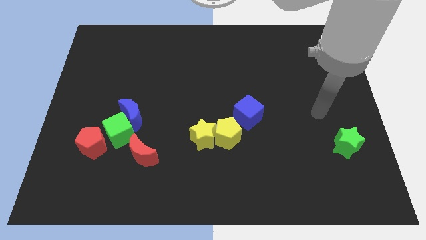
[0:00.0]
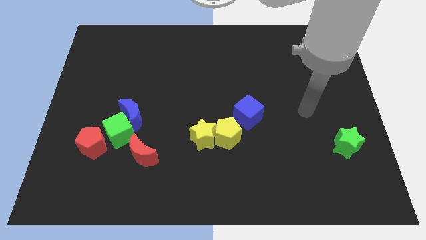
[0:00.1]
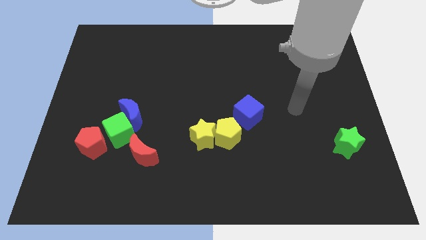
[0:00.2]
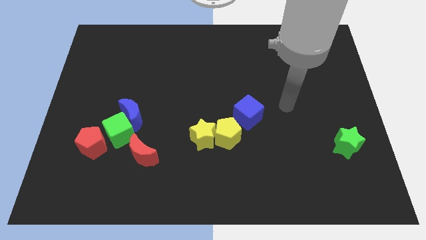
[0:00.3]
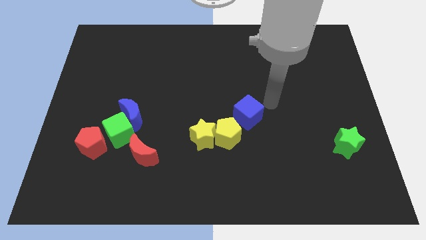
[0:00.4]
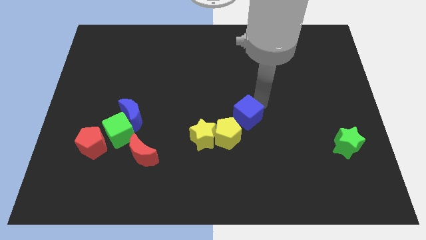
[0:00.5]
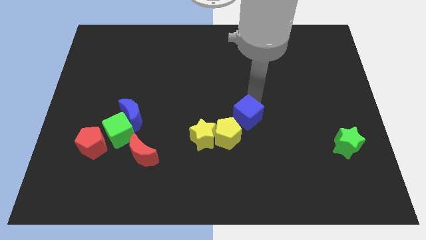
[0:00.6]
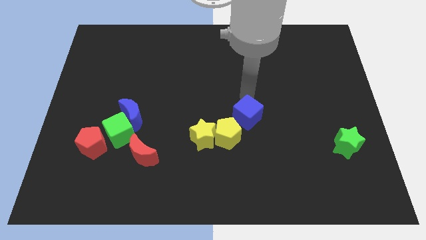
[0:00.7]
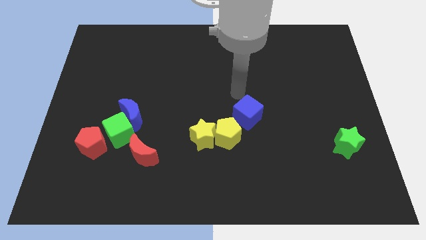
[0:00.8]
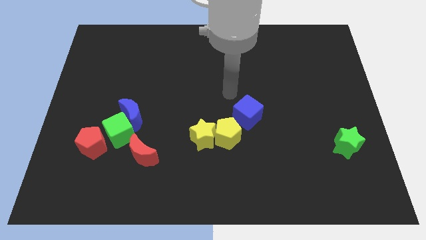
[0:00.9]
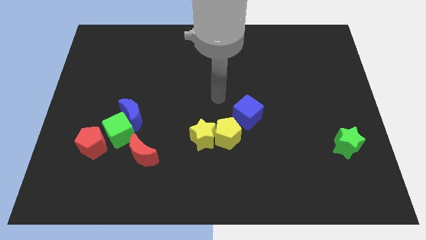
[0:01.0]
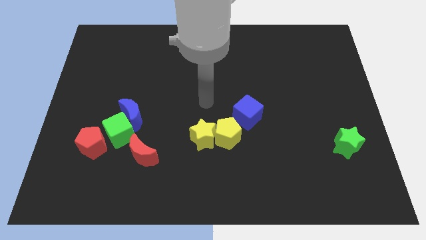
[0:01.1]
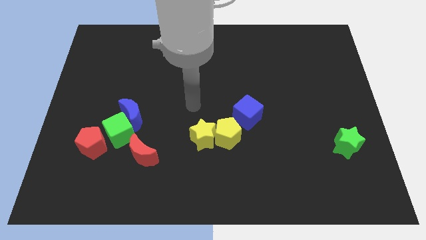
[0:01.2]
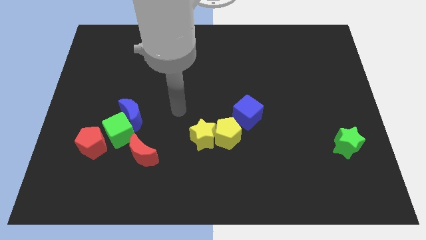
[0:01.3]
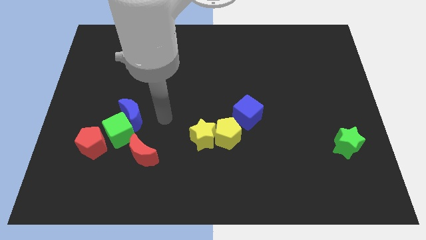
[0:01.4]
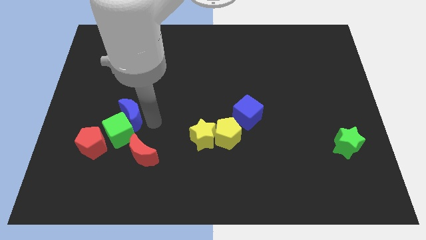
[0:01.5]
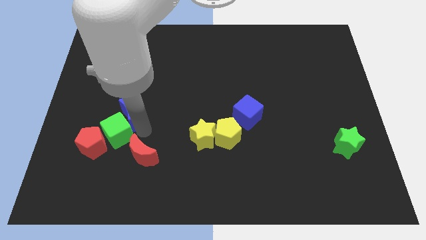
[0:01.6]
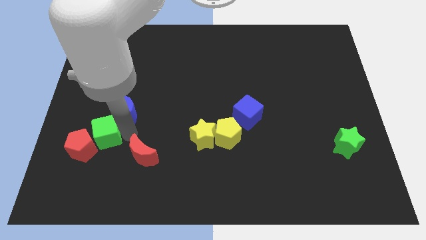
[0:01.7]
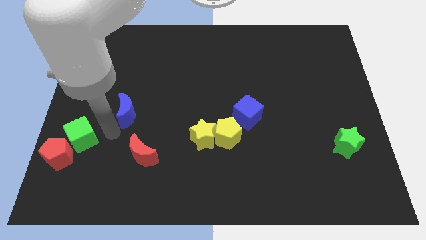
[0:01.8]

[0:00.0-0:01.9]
separate the blue moon from the green cube

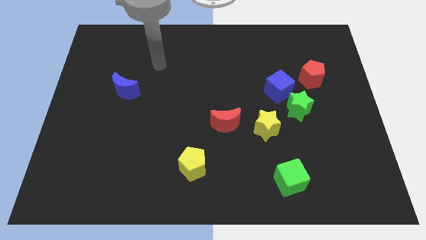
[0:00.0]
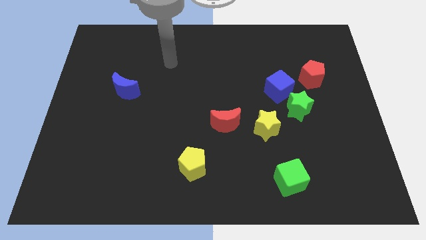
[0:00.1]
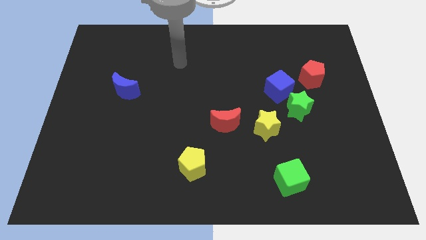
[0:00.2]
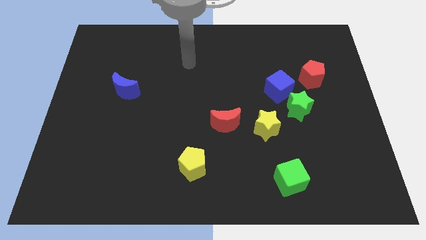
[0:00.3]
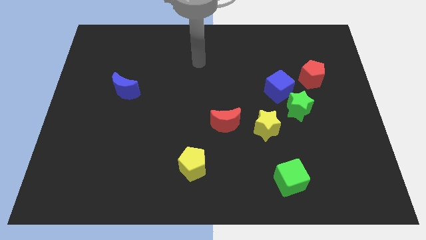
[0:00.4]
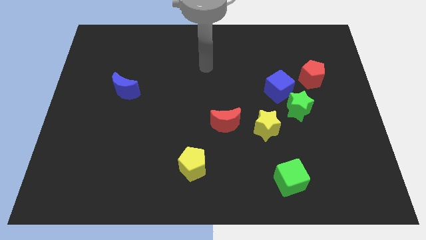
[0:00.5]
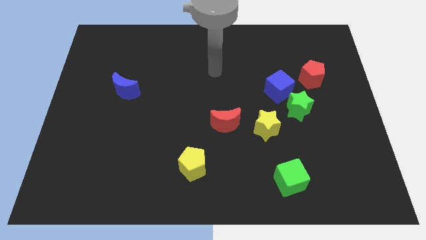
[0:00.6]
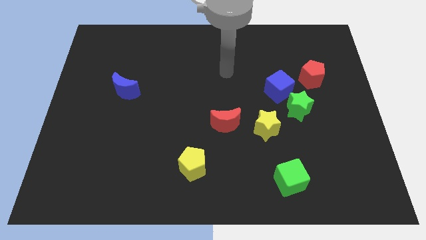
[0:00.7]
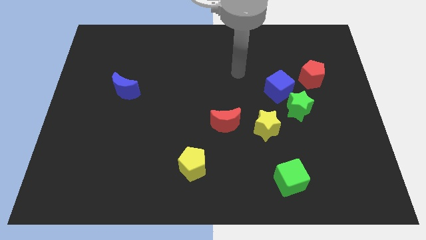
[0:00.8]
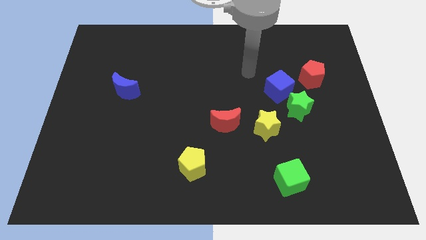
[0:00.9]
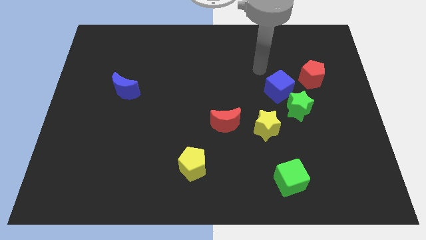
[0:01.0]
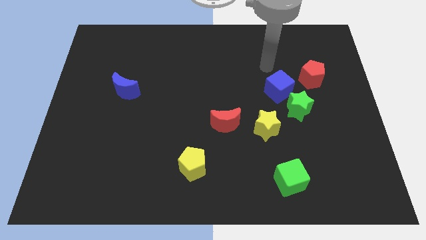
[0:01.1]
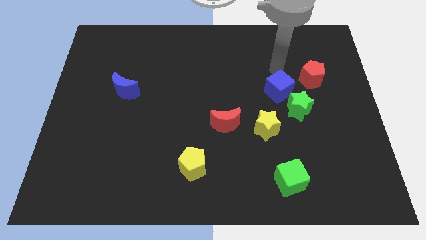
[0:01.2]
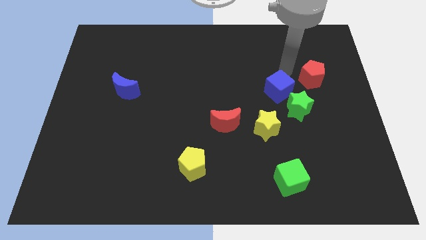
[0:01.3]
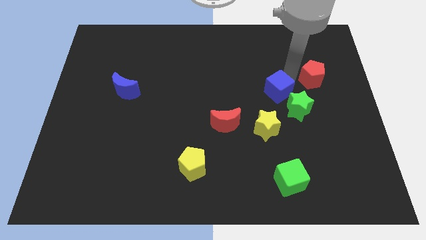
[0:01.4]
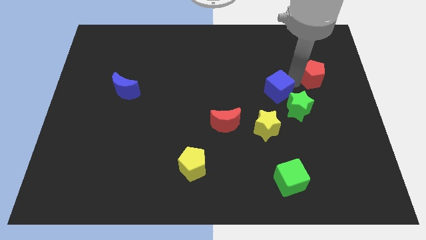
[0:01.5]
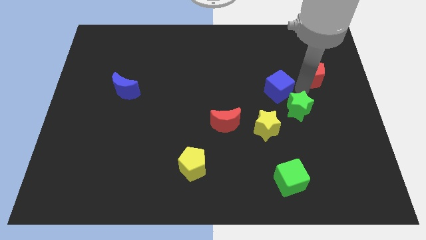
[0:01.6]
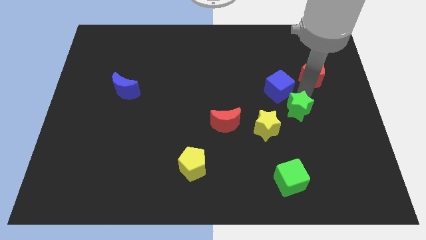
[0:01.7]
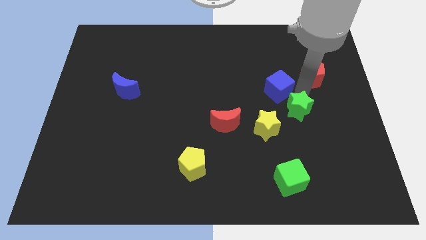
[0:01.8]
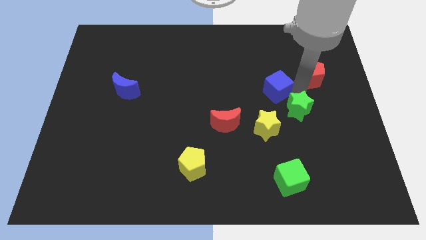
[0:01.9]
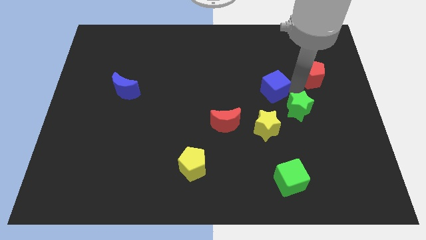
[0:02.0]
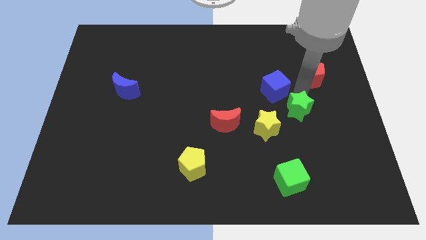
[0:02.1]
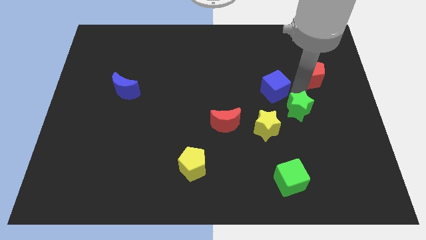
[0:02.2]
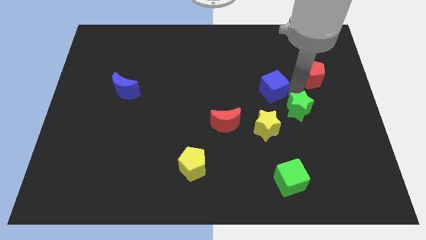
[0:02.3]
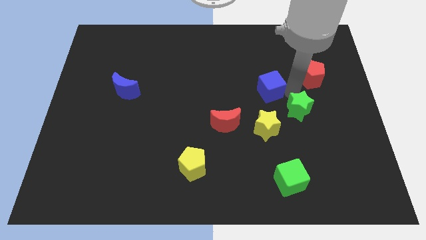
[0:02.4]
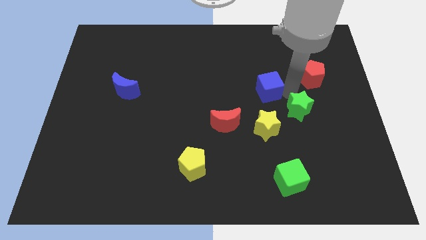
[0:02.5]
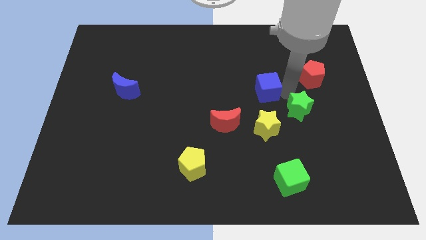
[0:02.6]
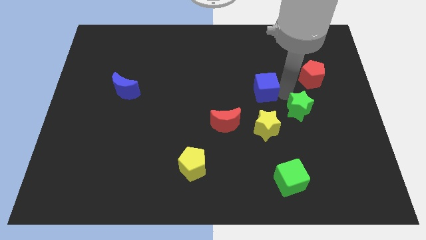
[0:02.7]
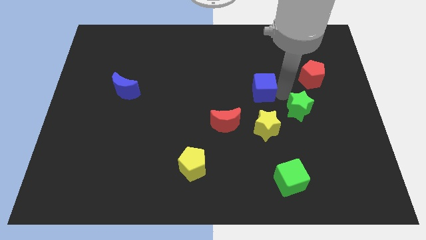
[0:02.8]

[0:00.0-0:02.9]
separate the blue cube from the green star and red pentagon

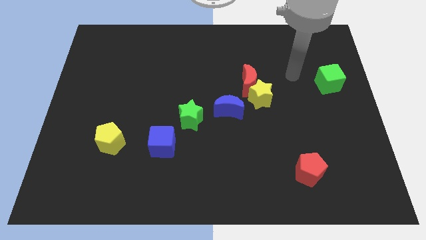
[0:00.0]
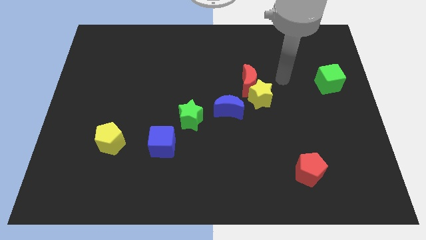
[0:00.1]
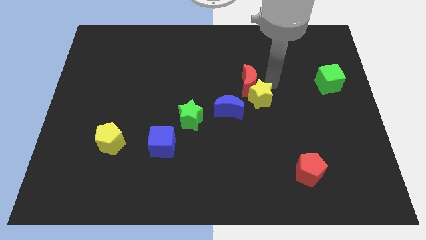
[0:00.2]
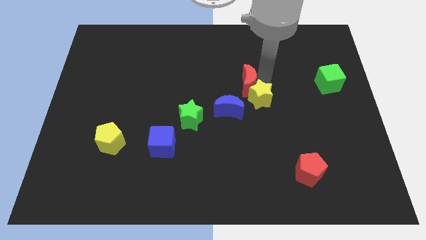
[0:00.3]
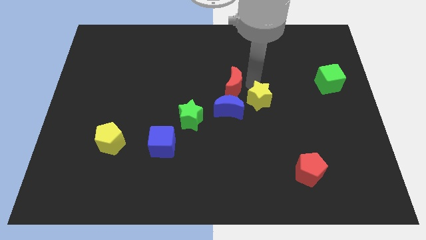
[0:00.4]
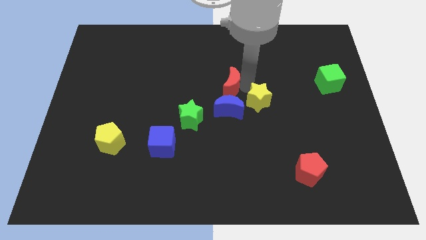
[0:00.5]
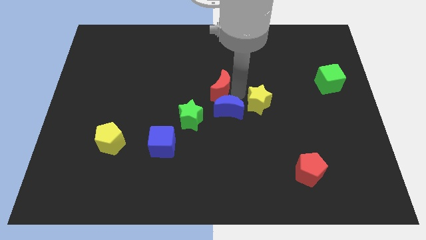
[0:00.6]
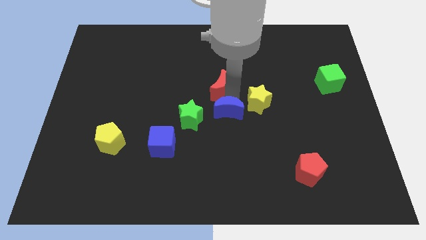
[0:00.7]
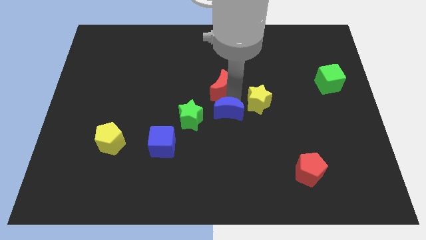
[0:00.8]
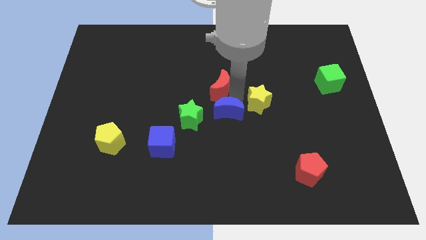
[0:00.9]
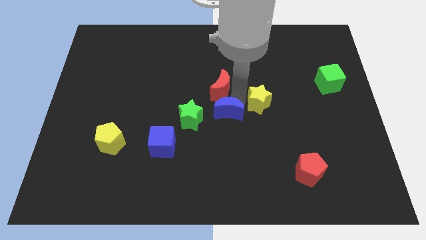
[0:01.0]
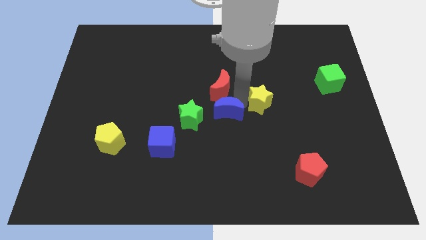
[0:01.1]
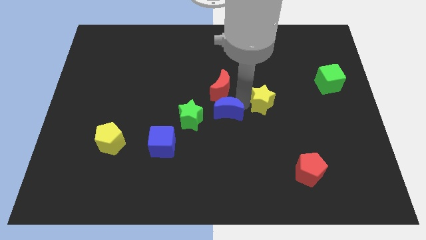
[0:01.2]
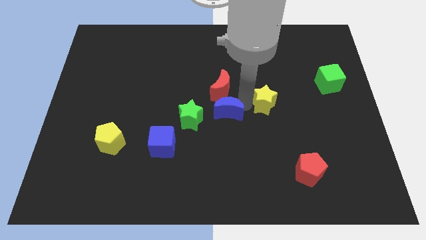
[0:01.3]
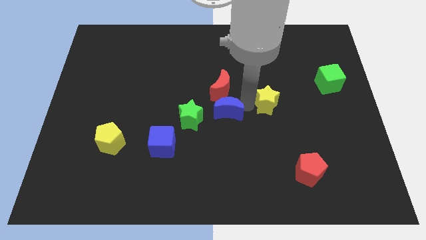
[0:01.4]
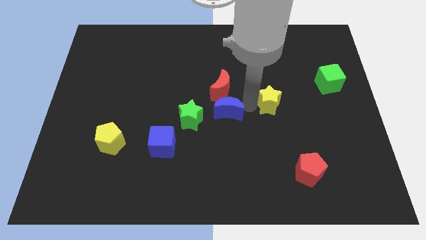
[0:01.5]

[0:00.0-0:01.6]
pull the yellow star apart from the red moon and blue moon

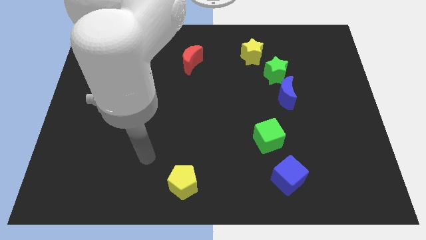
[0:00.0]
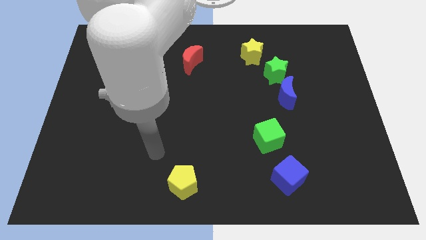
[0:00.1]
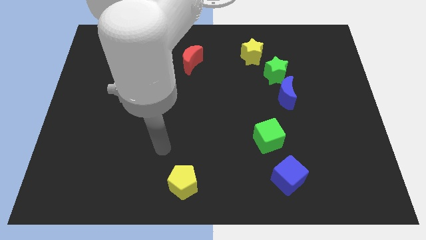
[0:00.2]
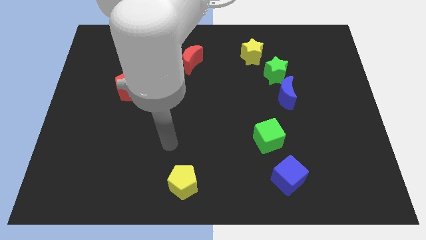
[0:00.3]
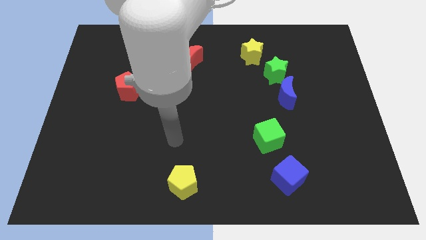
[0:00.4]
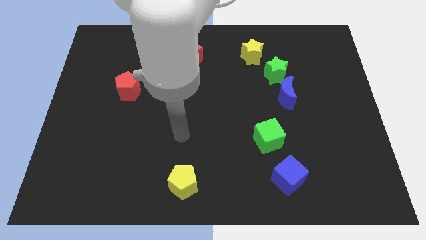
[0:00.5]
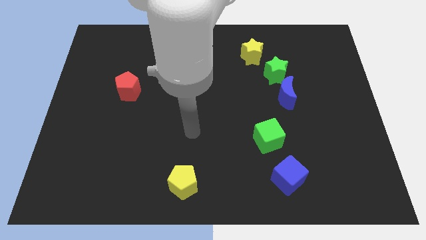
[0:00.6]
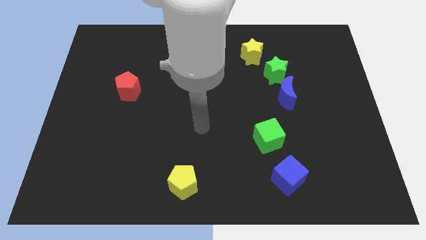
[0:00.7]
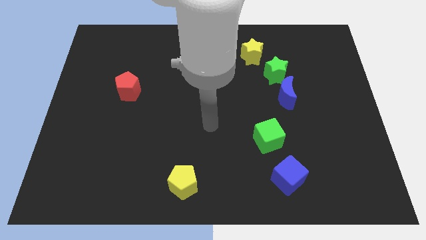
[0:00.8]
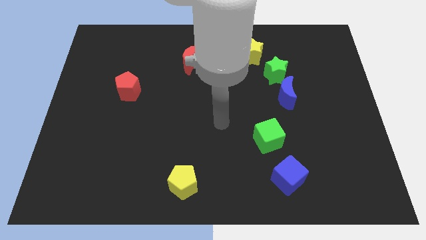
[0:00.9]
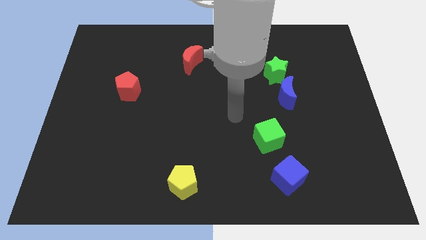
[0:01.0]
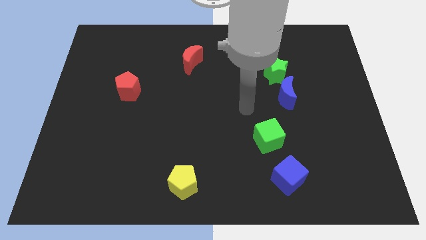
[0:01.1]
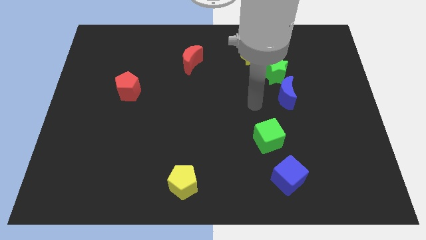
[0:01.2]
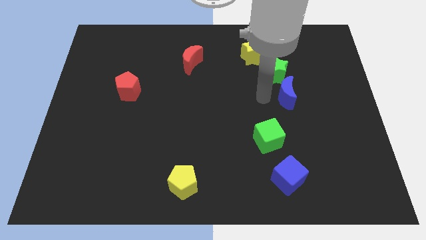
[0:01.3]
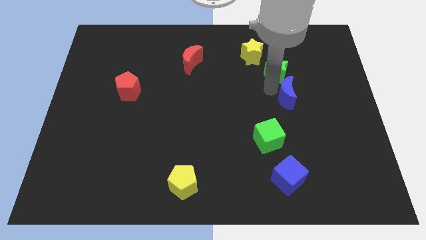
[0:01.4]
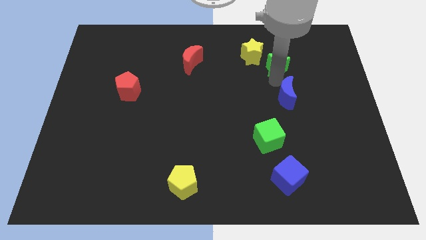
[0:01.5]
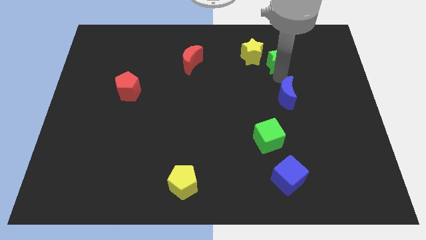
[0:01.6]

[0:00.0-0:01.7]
move the blue moon away from the green star

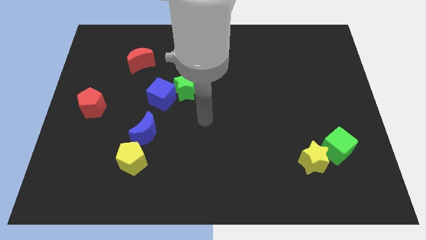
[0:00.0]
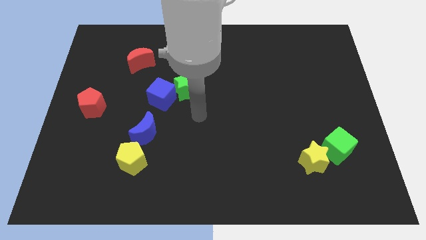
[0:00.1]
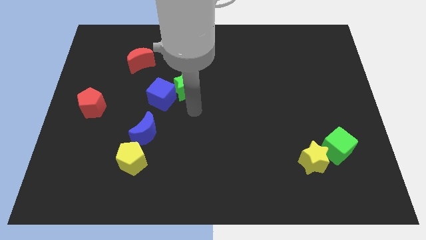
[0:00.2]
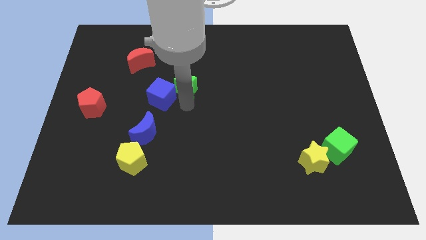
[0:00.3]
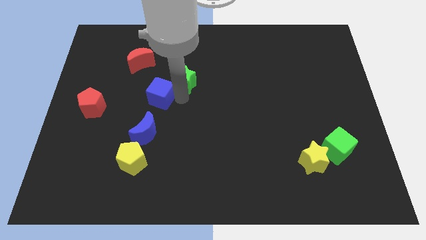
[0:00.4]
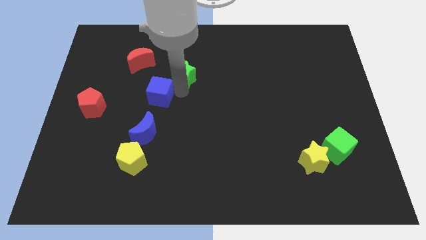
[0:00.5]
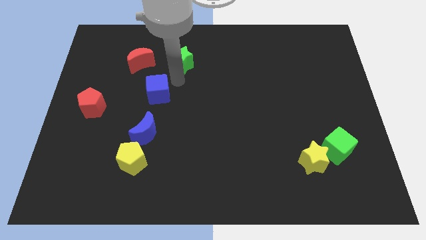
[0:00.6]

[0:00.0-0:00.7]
move the blue cube away from the green star

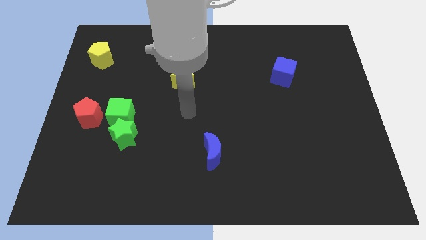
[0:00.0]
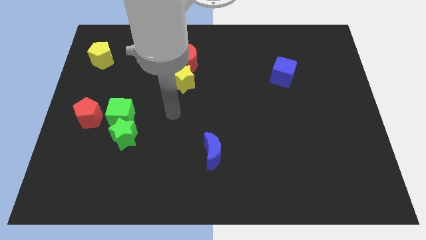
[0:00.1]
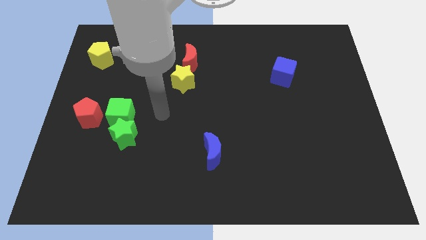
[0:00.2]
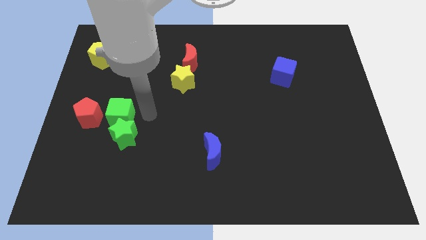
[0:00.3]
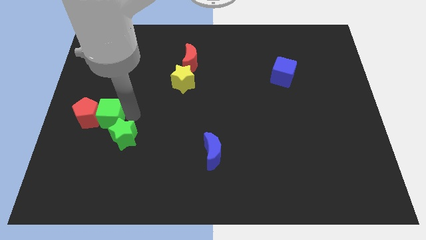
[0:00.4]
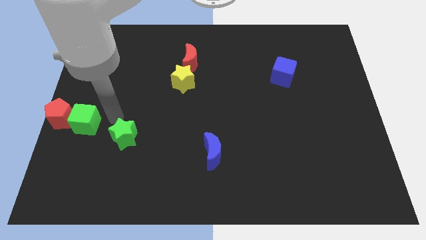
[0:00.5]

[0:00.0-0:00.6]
pull the green star apart from the green cube
